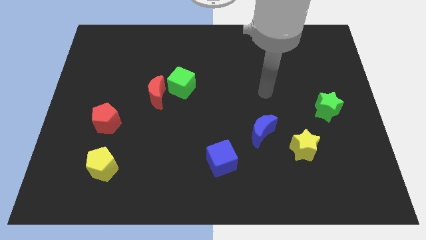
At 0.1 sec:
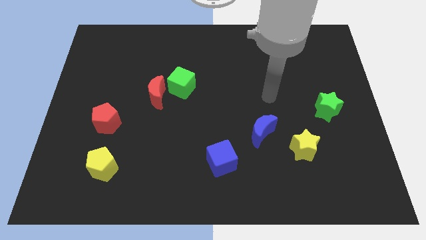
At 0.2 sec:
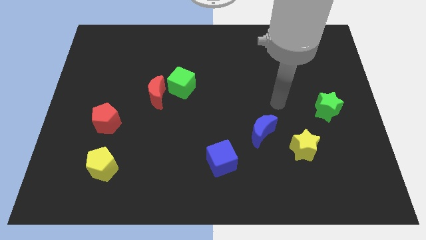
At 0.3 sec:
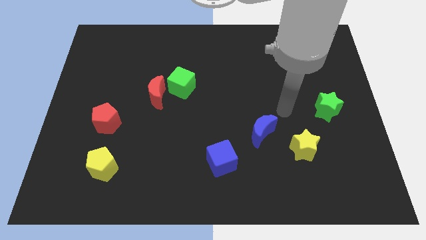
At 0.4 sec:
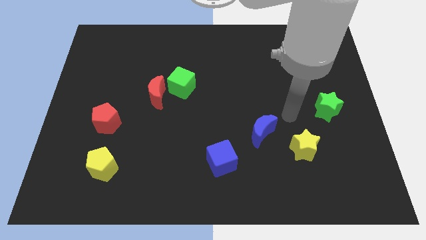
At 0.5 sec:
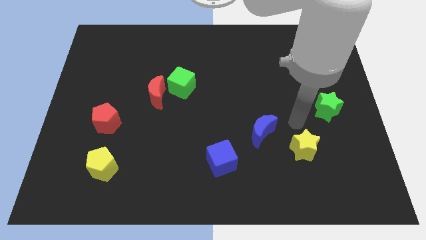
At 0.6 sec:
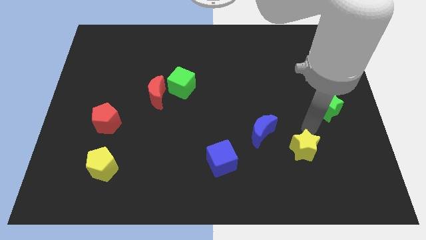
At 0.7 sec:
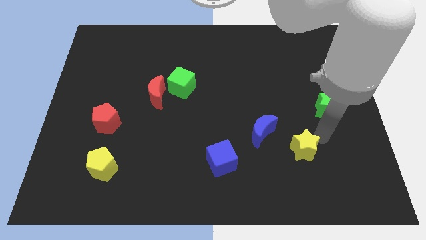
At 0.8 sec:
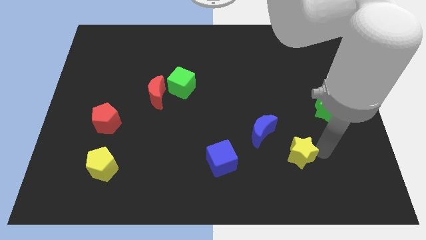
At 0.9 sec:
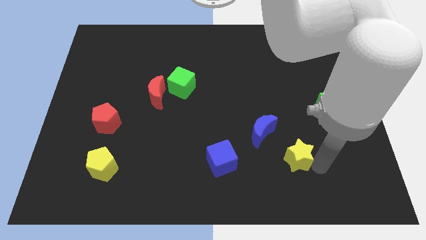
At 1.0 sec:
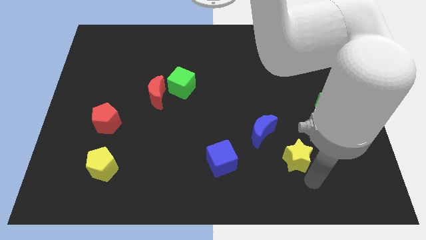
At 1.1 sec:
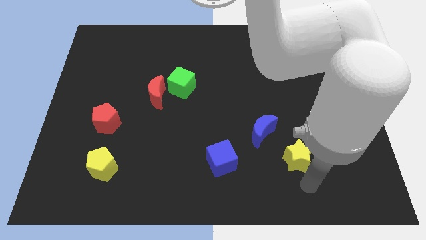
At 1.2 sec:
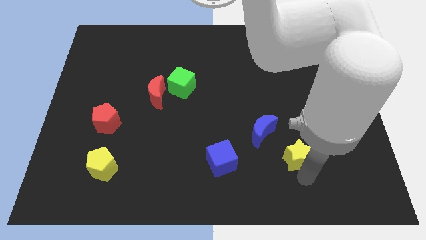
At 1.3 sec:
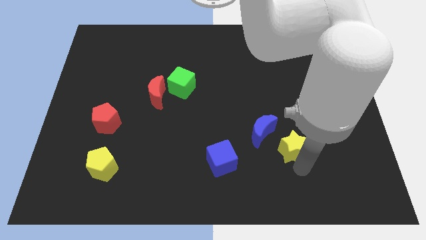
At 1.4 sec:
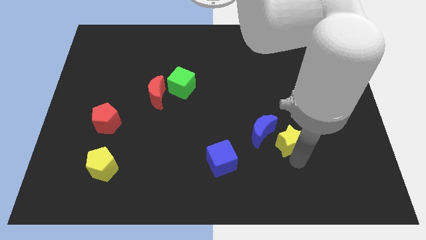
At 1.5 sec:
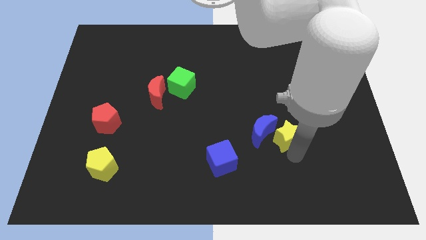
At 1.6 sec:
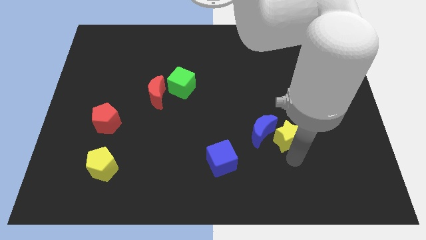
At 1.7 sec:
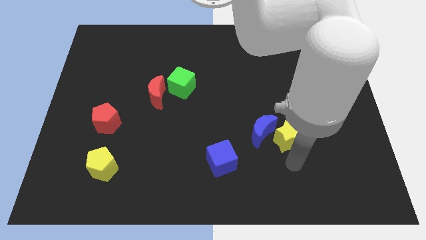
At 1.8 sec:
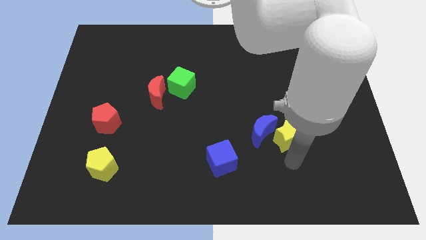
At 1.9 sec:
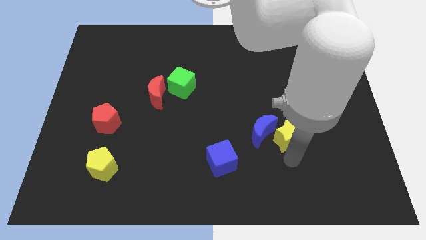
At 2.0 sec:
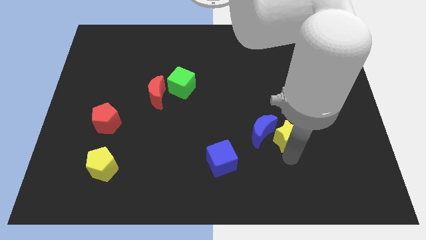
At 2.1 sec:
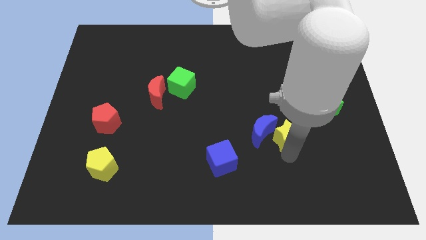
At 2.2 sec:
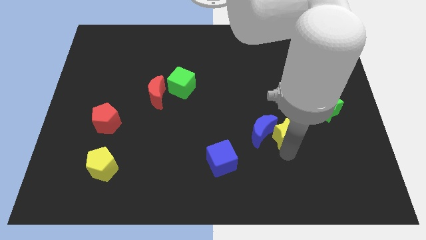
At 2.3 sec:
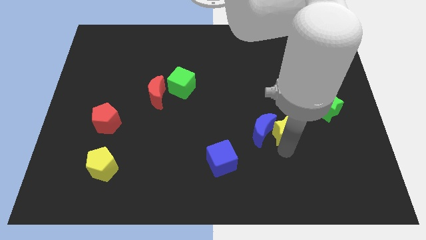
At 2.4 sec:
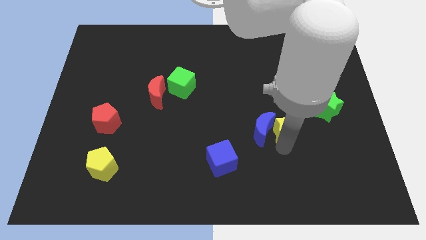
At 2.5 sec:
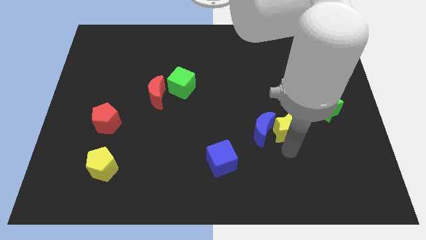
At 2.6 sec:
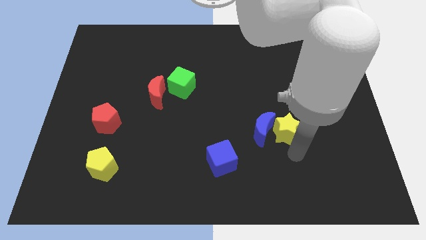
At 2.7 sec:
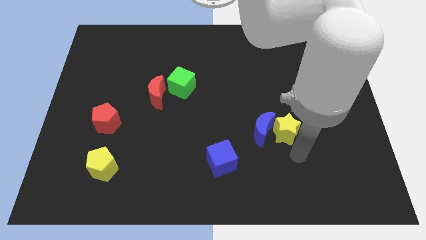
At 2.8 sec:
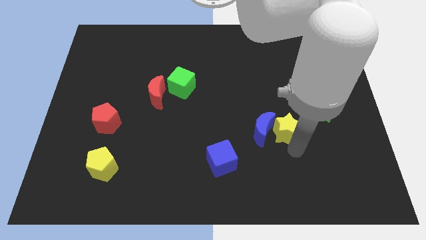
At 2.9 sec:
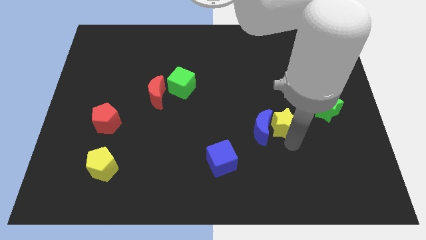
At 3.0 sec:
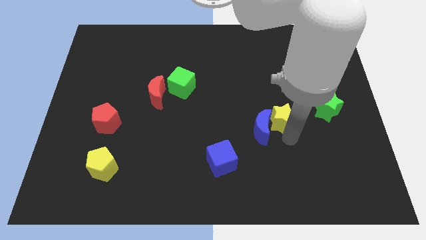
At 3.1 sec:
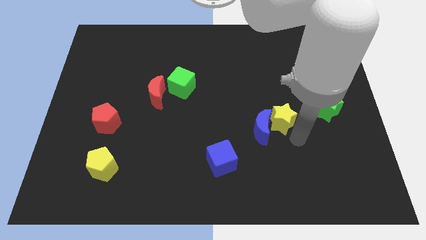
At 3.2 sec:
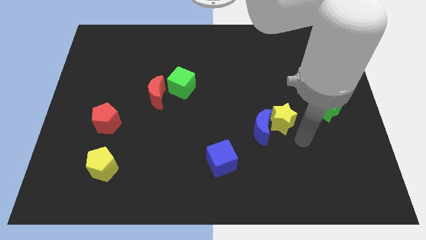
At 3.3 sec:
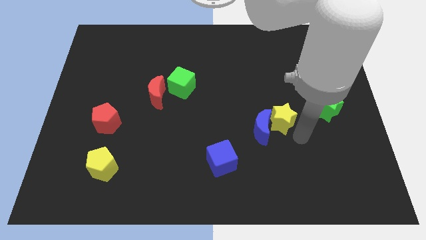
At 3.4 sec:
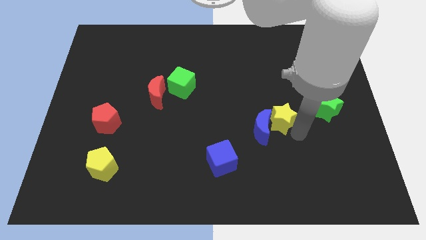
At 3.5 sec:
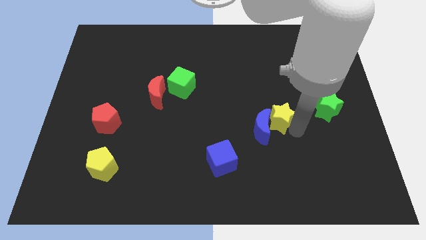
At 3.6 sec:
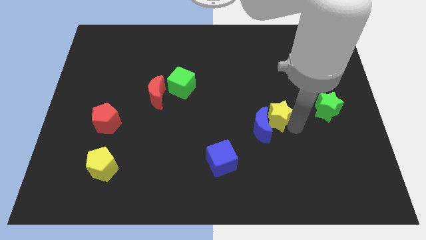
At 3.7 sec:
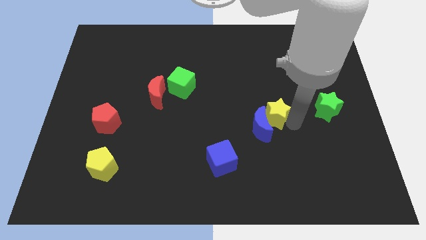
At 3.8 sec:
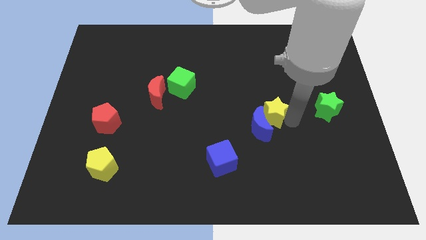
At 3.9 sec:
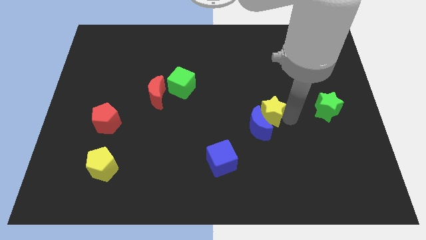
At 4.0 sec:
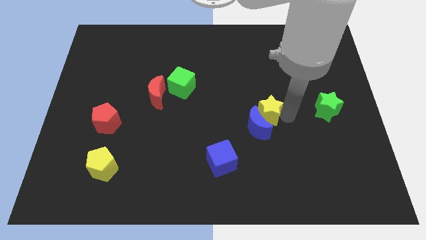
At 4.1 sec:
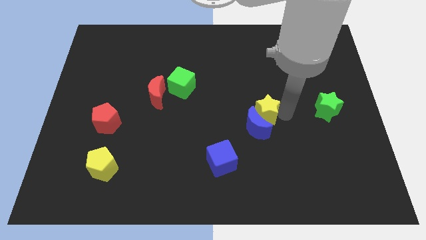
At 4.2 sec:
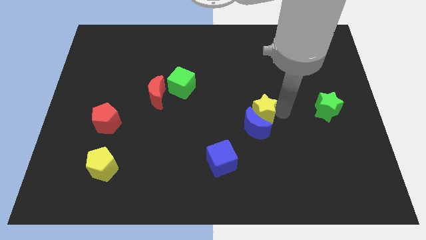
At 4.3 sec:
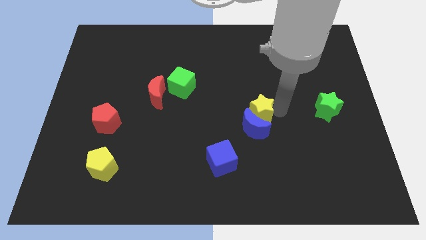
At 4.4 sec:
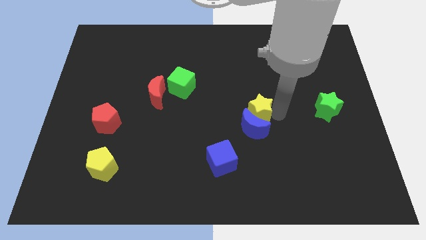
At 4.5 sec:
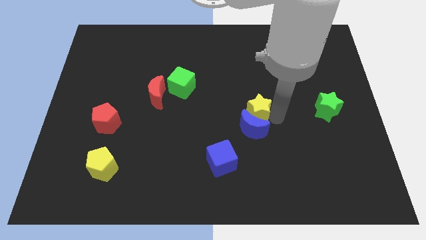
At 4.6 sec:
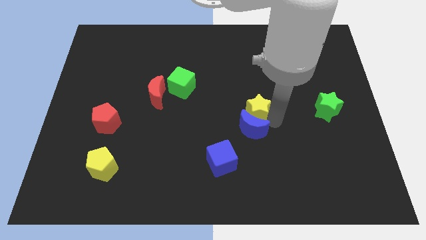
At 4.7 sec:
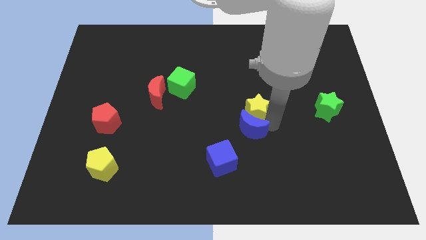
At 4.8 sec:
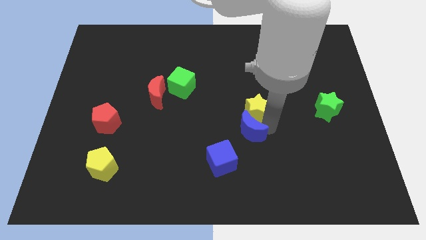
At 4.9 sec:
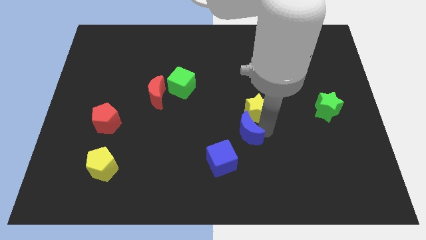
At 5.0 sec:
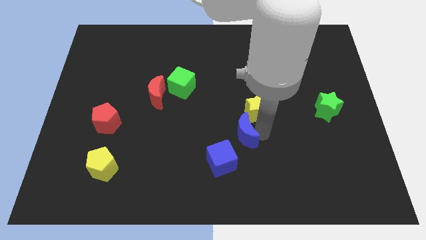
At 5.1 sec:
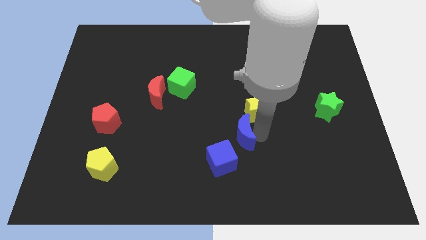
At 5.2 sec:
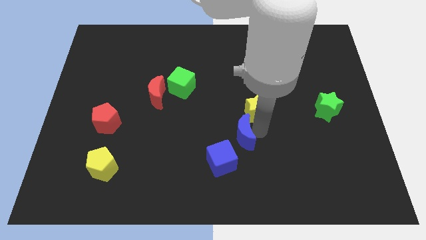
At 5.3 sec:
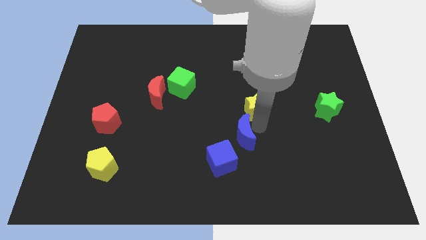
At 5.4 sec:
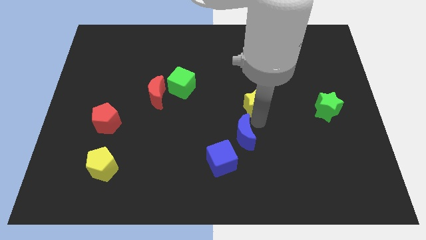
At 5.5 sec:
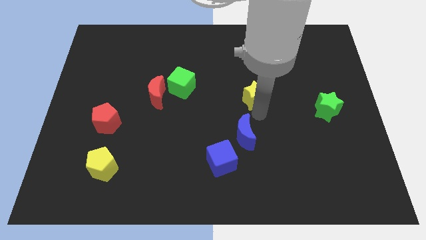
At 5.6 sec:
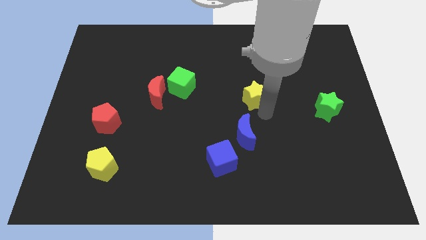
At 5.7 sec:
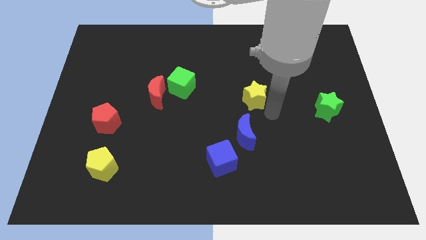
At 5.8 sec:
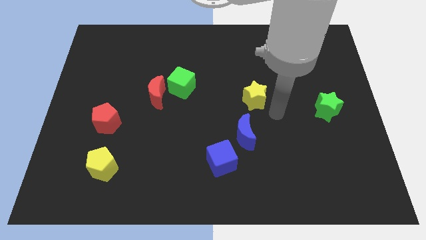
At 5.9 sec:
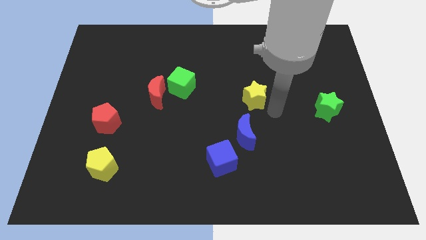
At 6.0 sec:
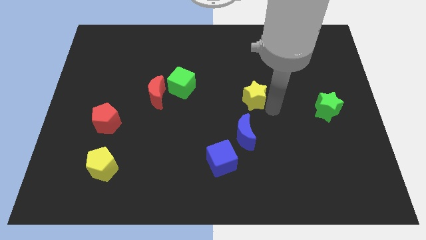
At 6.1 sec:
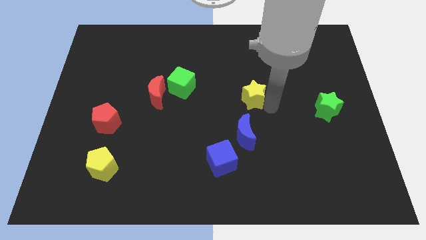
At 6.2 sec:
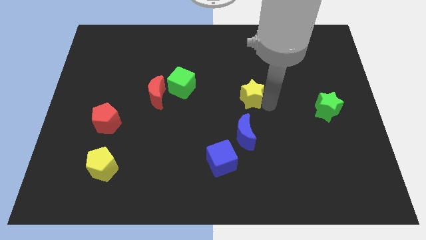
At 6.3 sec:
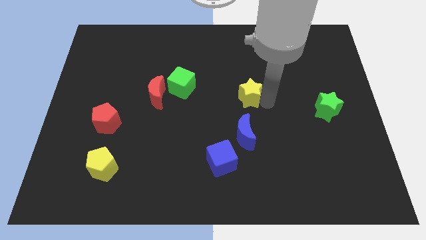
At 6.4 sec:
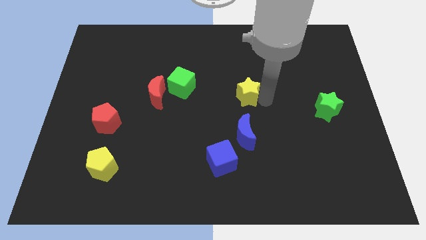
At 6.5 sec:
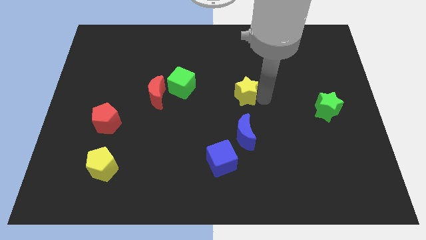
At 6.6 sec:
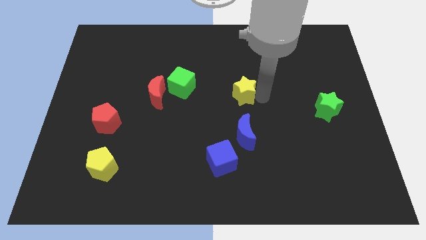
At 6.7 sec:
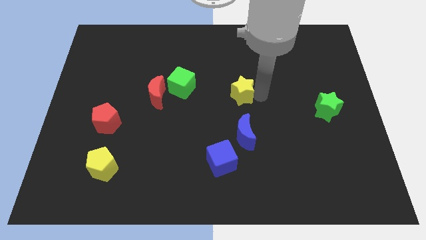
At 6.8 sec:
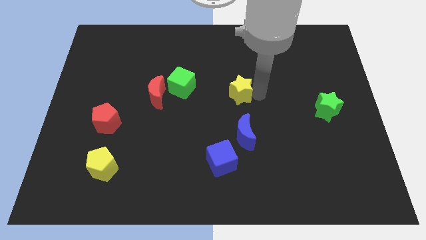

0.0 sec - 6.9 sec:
push the yellow star upwards and then left

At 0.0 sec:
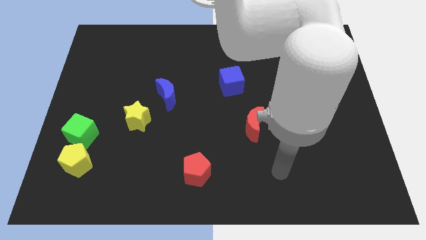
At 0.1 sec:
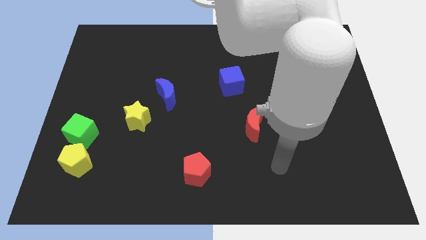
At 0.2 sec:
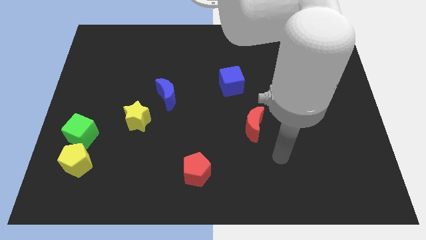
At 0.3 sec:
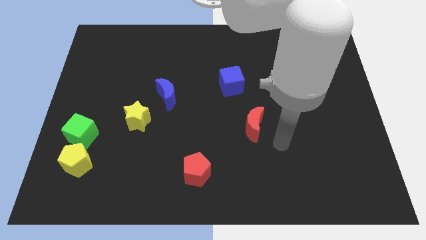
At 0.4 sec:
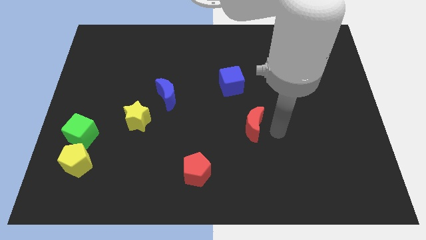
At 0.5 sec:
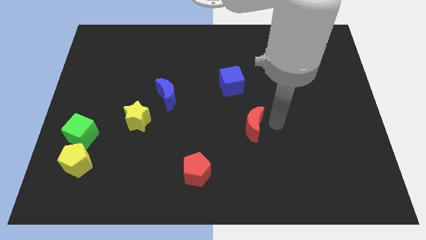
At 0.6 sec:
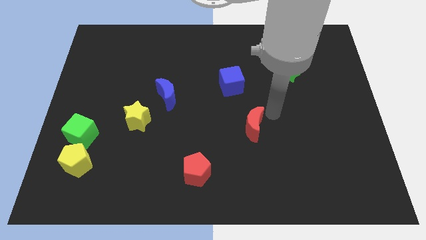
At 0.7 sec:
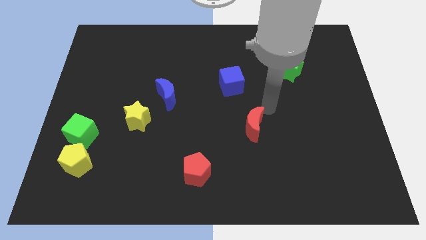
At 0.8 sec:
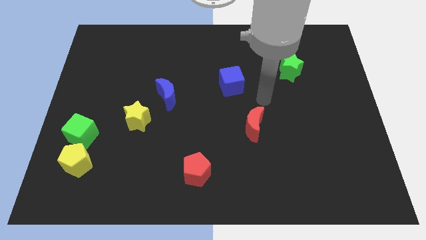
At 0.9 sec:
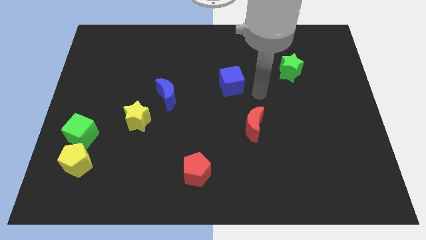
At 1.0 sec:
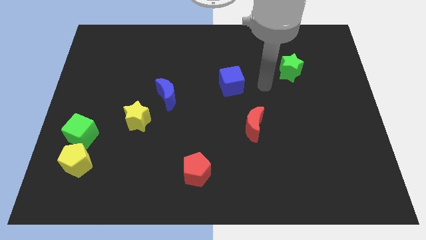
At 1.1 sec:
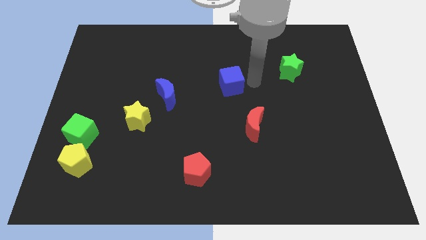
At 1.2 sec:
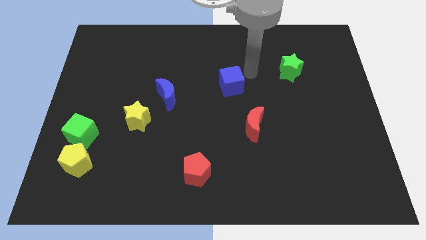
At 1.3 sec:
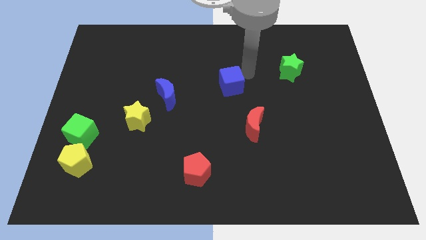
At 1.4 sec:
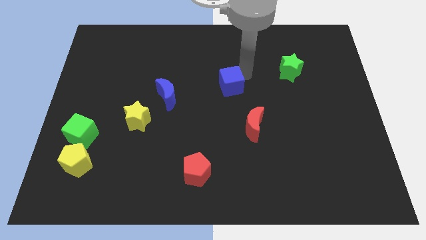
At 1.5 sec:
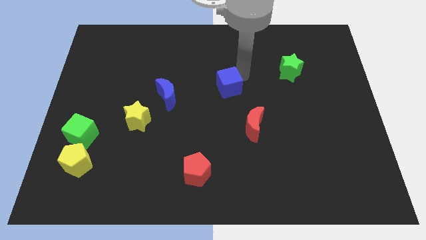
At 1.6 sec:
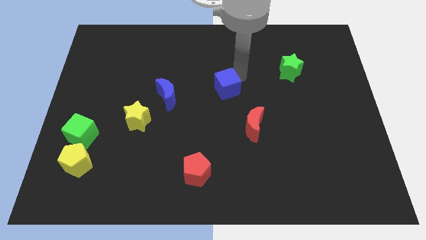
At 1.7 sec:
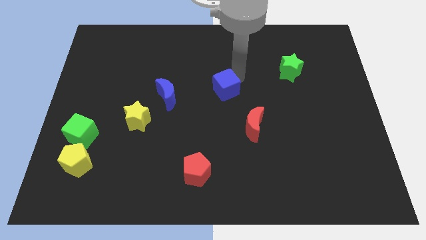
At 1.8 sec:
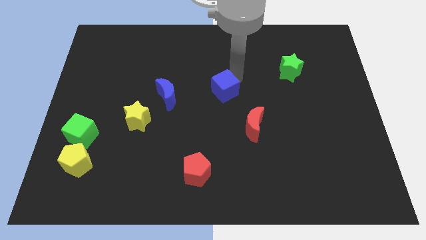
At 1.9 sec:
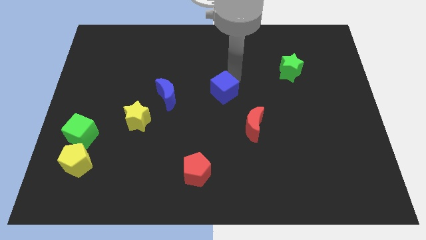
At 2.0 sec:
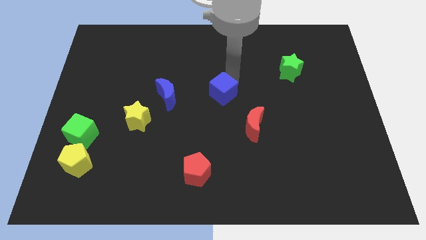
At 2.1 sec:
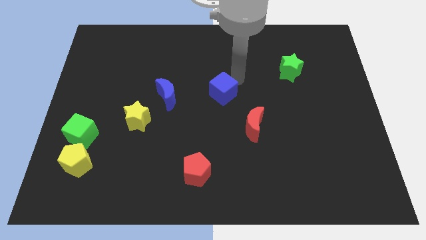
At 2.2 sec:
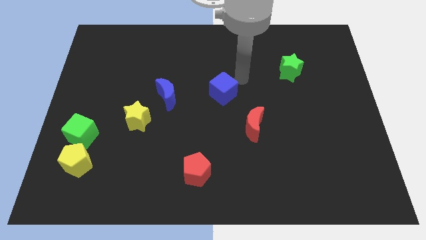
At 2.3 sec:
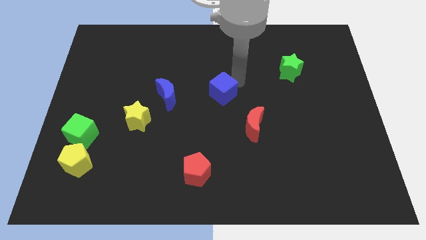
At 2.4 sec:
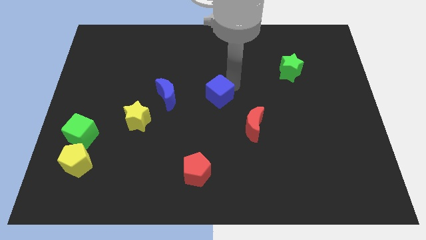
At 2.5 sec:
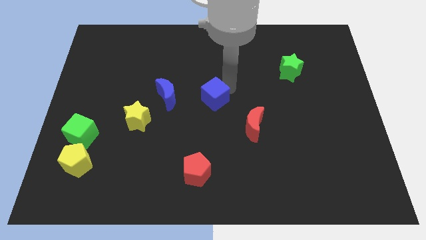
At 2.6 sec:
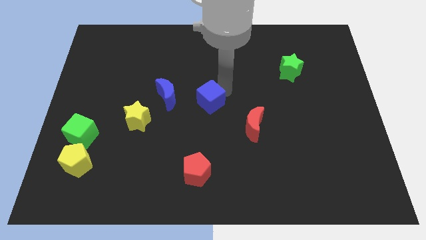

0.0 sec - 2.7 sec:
move the blue cube down and left diagonally a little
